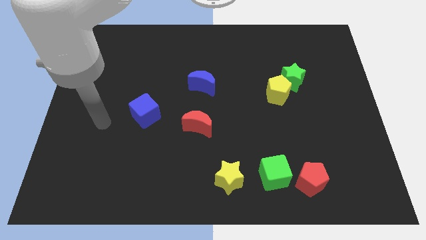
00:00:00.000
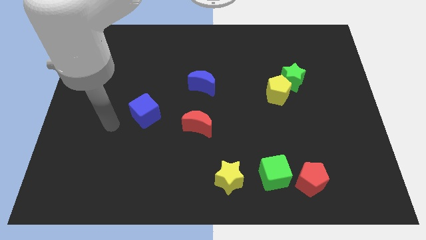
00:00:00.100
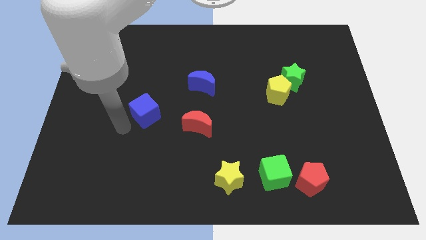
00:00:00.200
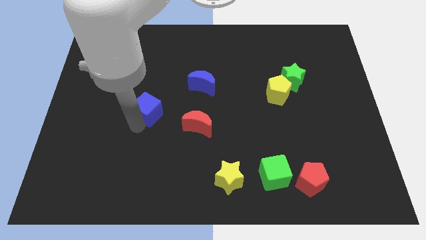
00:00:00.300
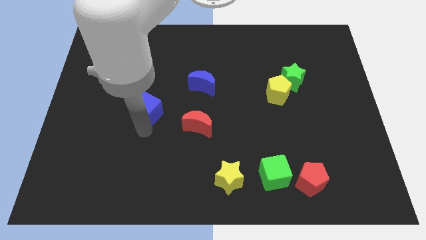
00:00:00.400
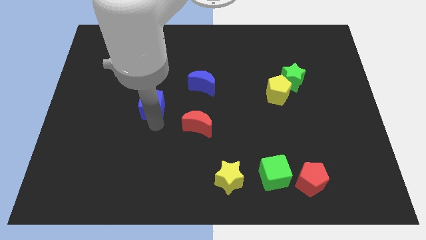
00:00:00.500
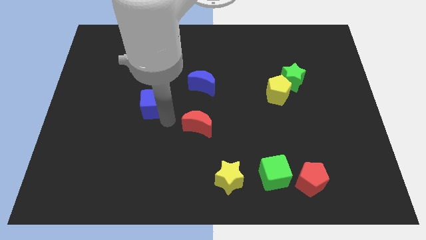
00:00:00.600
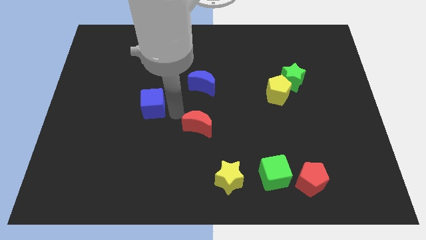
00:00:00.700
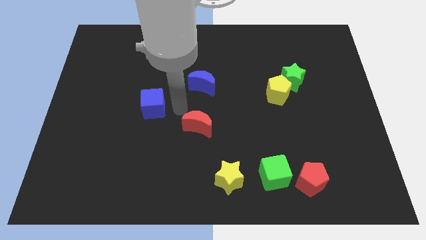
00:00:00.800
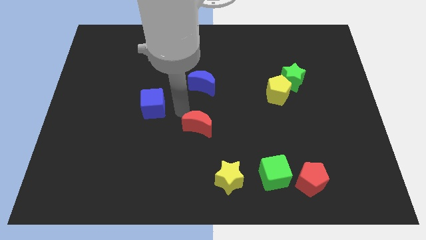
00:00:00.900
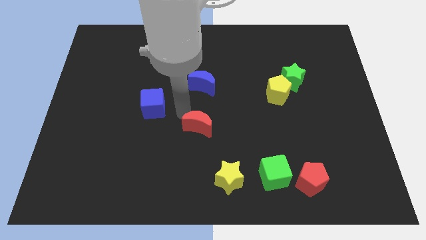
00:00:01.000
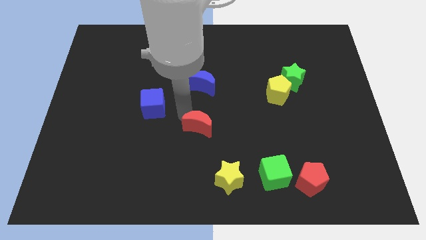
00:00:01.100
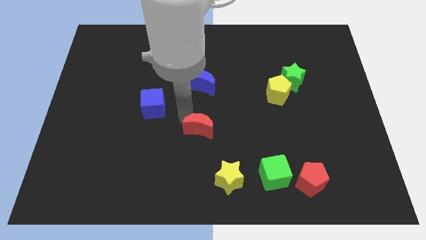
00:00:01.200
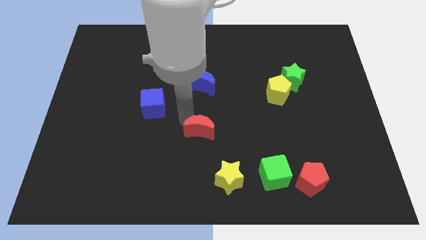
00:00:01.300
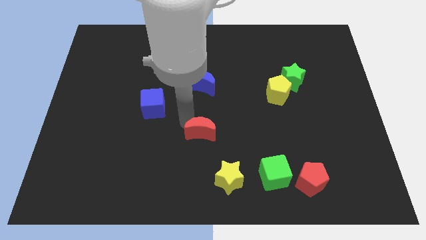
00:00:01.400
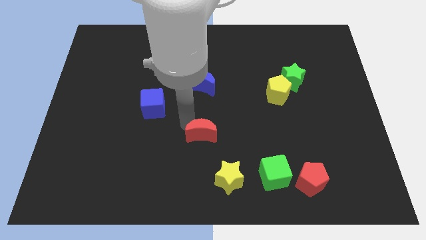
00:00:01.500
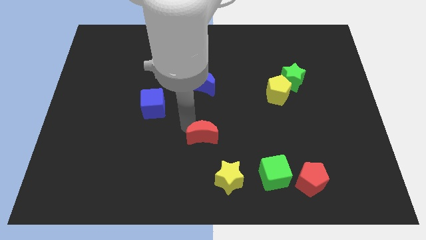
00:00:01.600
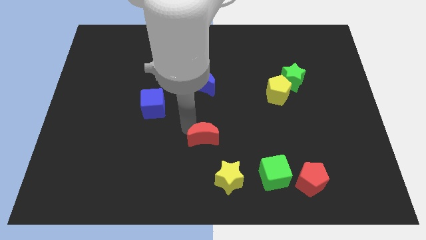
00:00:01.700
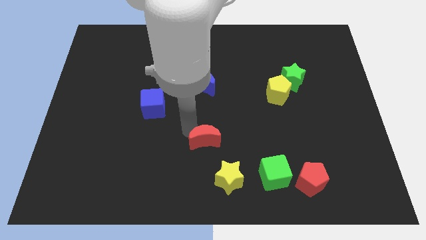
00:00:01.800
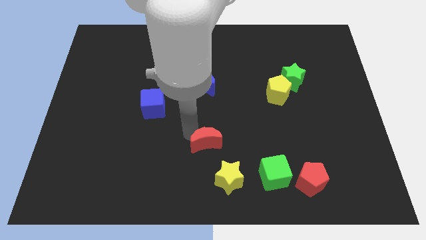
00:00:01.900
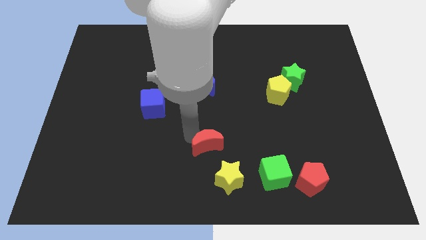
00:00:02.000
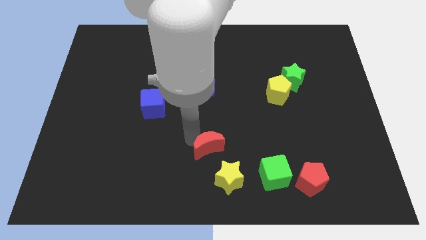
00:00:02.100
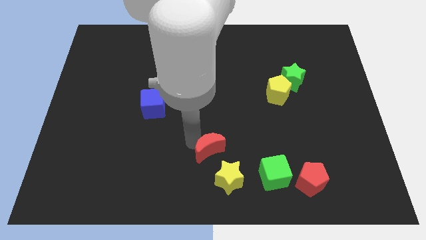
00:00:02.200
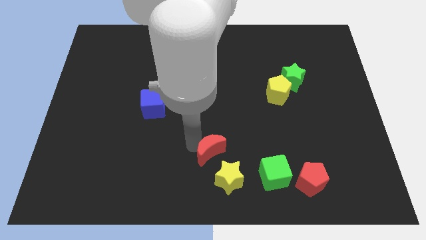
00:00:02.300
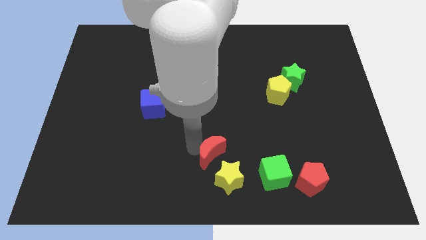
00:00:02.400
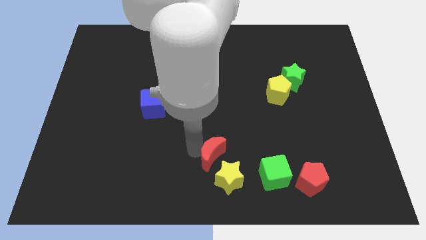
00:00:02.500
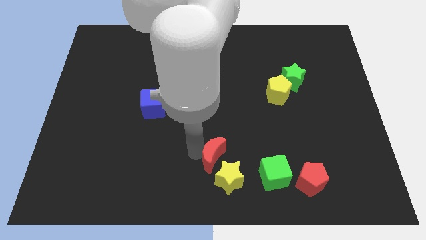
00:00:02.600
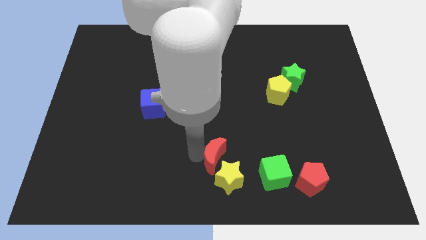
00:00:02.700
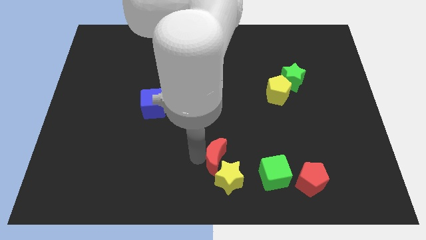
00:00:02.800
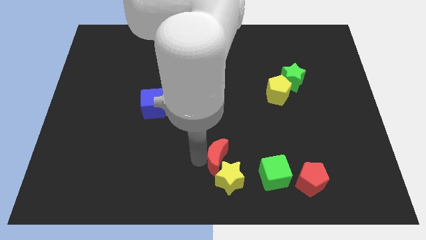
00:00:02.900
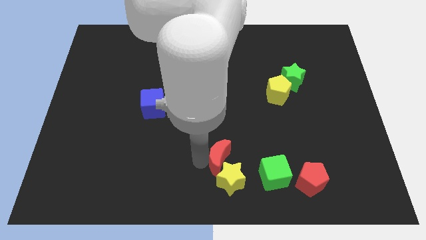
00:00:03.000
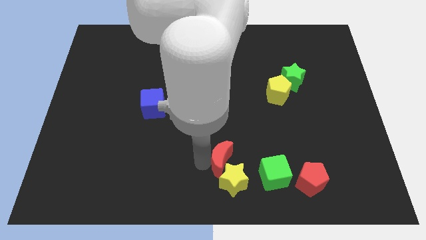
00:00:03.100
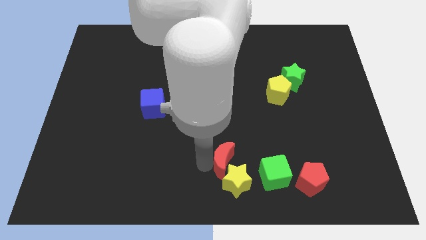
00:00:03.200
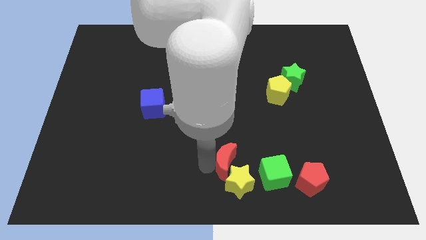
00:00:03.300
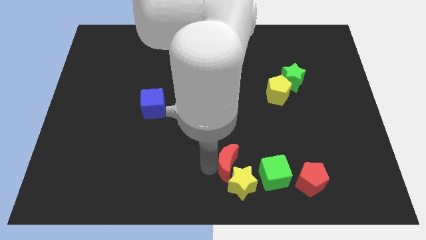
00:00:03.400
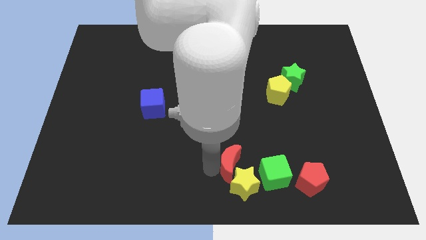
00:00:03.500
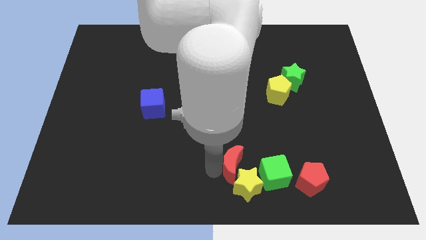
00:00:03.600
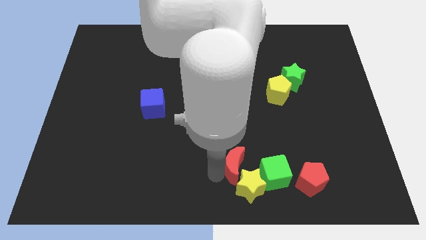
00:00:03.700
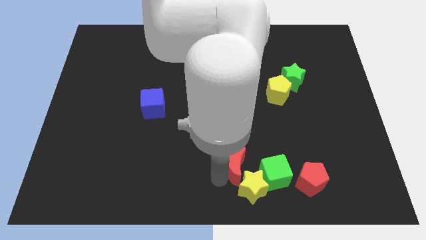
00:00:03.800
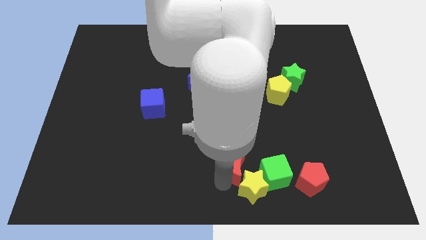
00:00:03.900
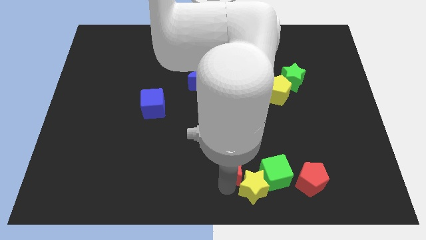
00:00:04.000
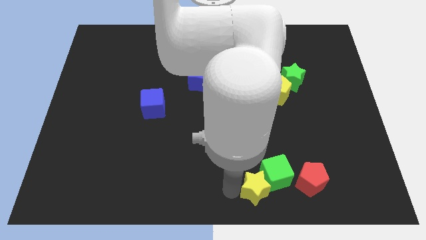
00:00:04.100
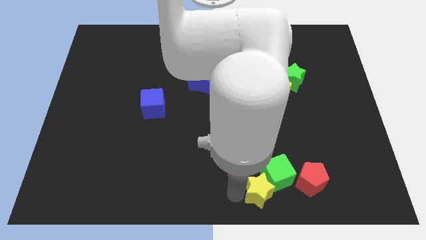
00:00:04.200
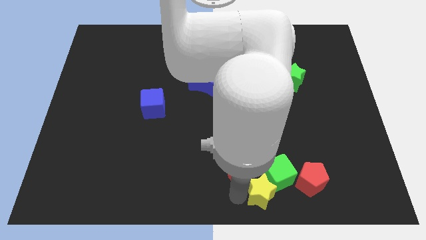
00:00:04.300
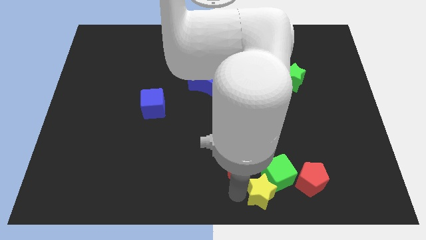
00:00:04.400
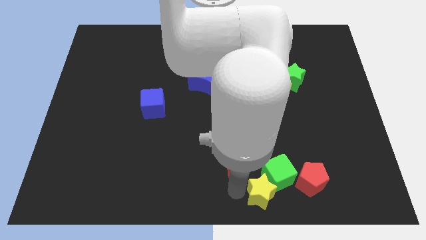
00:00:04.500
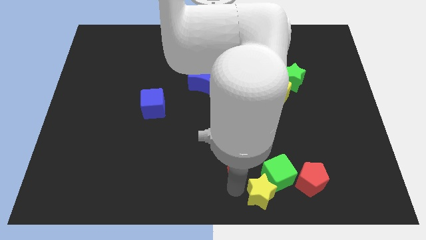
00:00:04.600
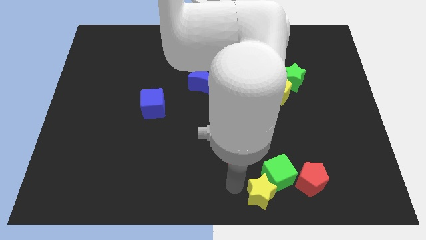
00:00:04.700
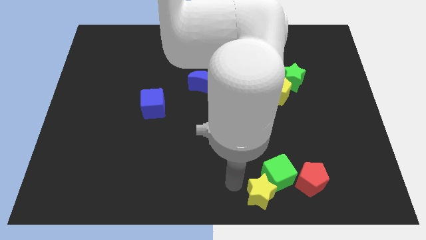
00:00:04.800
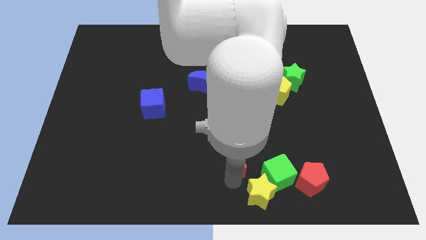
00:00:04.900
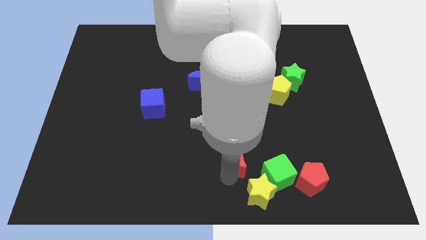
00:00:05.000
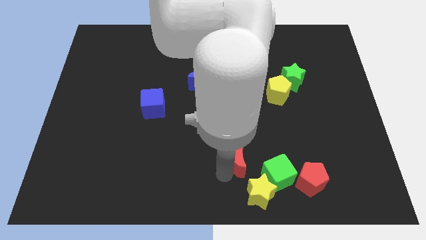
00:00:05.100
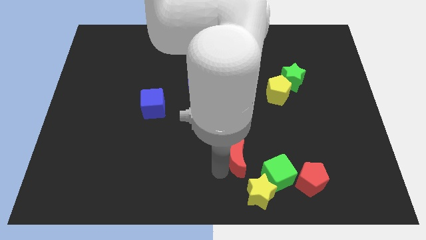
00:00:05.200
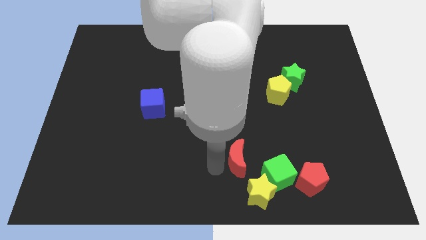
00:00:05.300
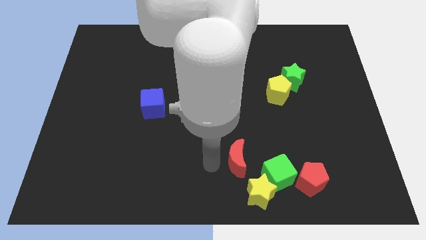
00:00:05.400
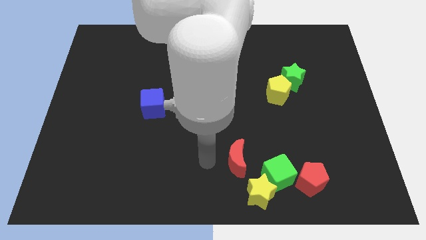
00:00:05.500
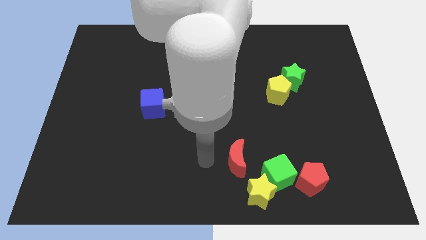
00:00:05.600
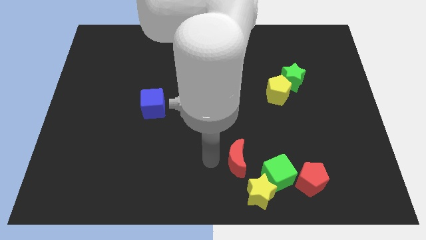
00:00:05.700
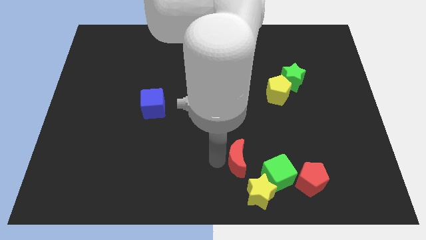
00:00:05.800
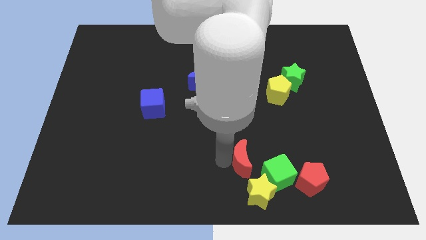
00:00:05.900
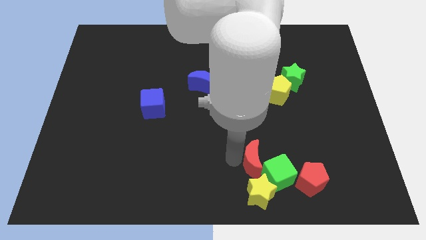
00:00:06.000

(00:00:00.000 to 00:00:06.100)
put the red moon next to the green cube

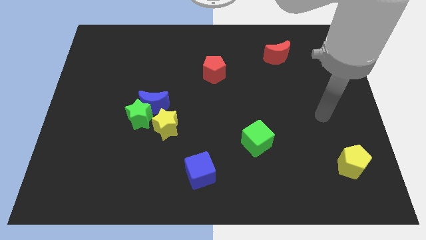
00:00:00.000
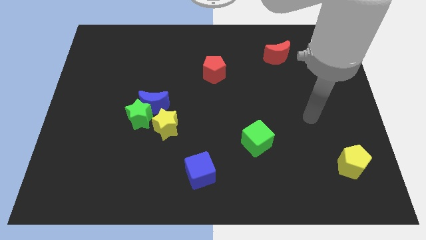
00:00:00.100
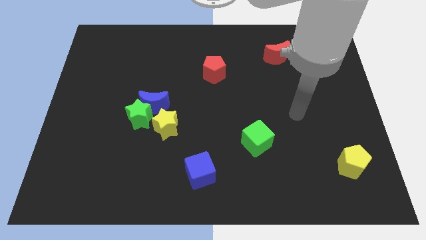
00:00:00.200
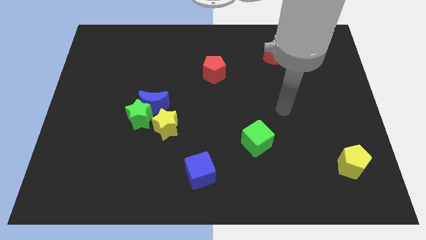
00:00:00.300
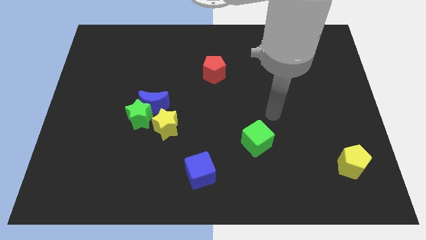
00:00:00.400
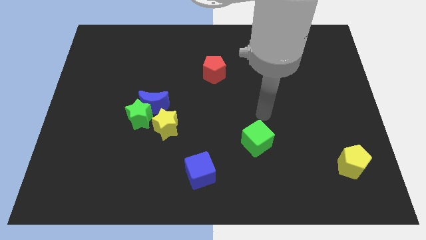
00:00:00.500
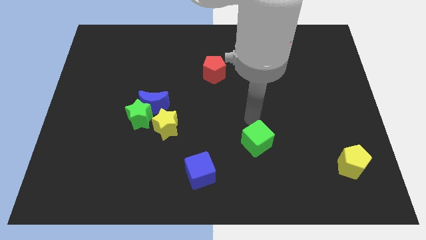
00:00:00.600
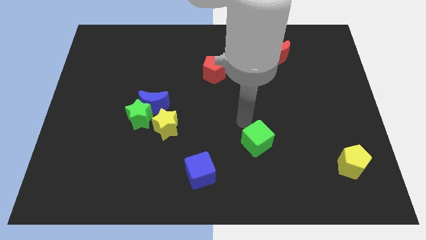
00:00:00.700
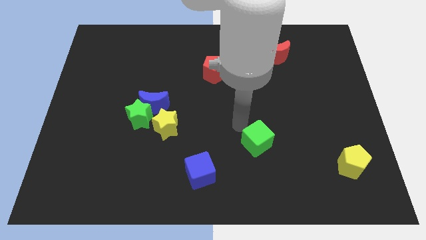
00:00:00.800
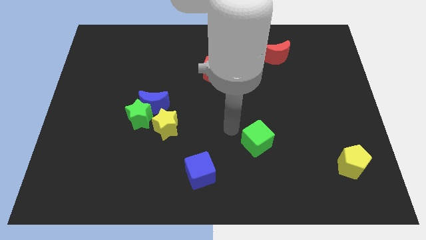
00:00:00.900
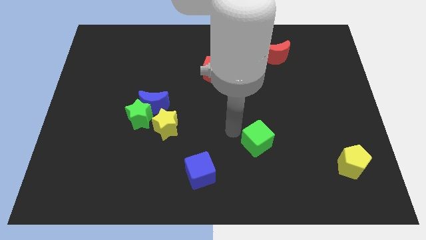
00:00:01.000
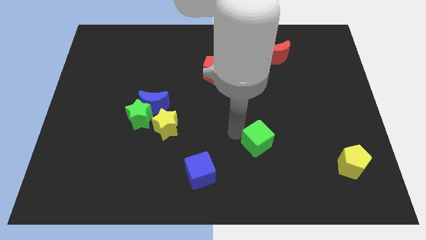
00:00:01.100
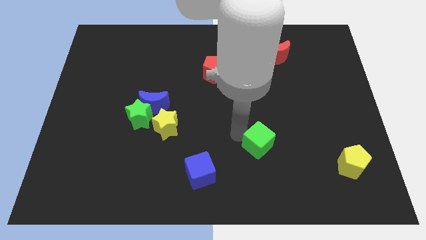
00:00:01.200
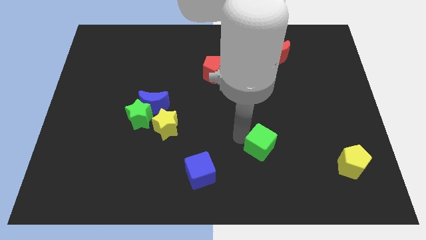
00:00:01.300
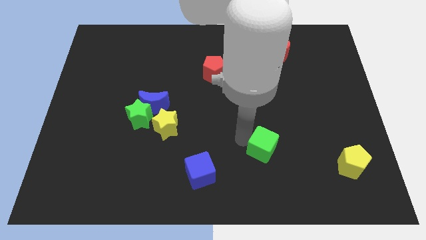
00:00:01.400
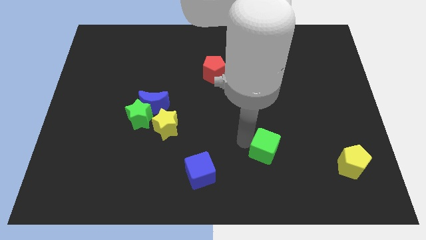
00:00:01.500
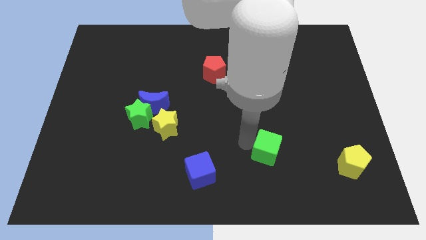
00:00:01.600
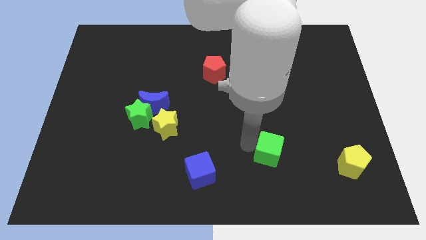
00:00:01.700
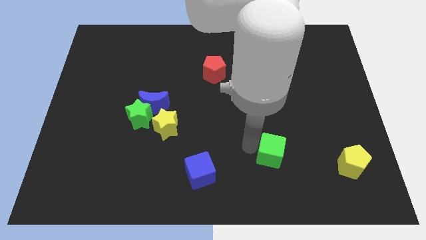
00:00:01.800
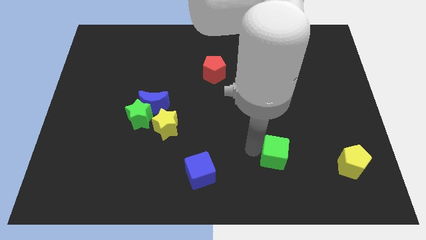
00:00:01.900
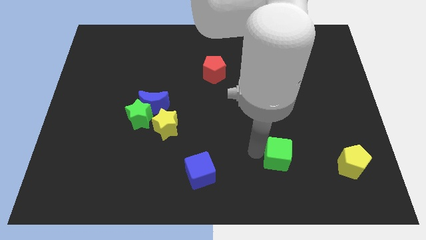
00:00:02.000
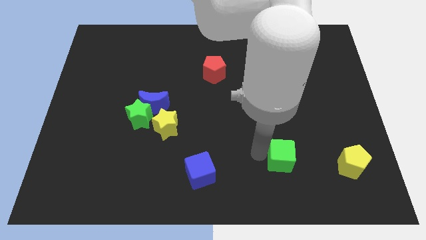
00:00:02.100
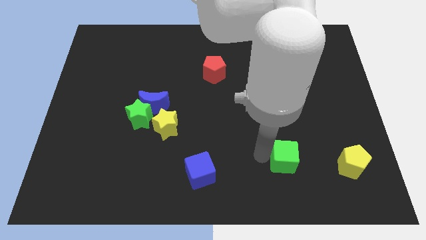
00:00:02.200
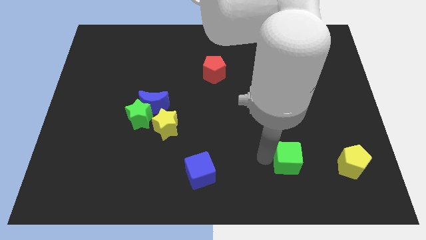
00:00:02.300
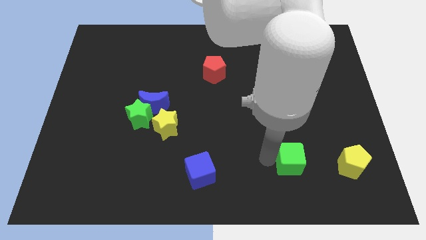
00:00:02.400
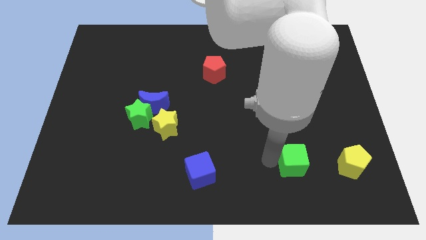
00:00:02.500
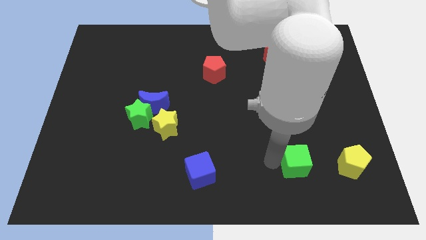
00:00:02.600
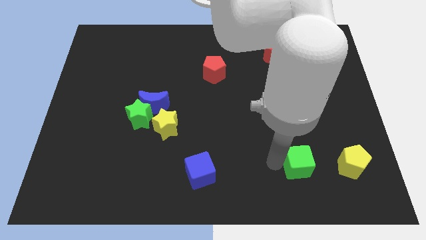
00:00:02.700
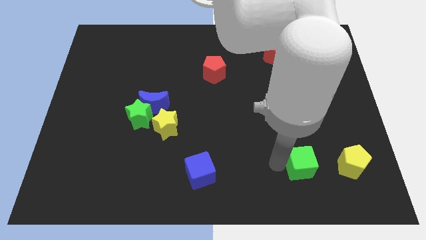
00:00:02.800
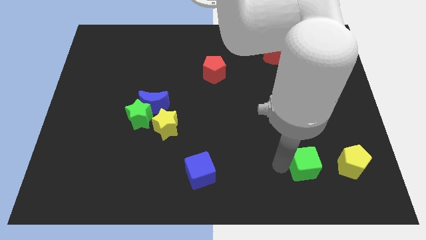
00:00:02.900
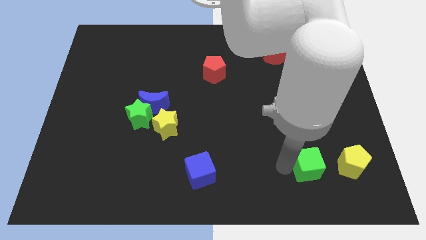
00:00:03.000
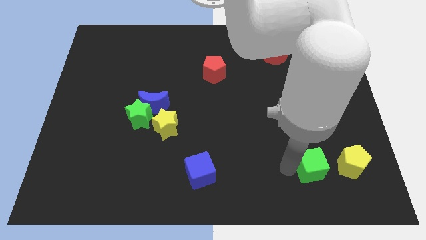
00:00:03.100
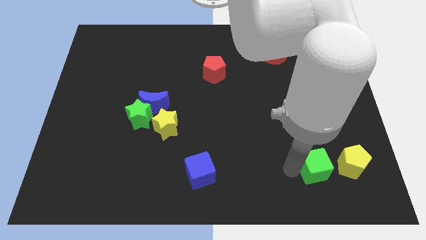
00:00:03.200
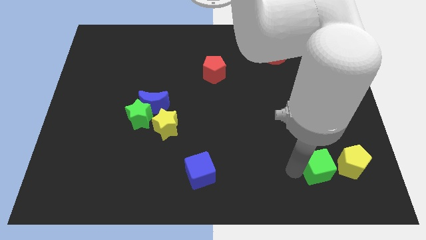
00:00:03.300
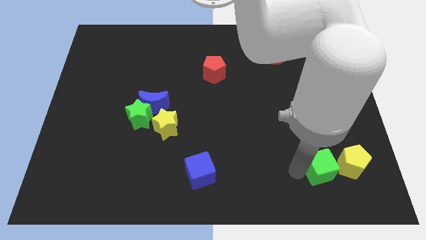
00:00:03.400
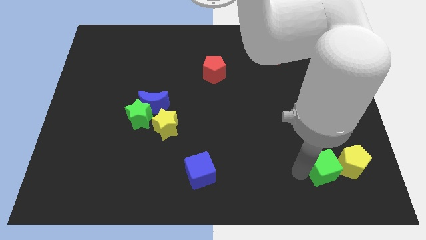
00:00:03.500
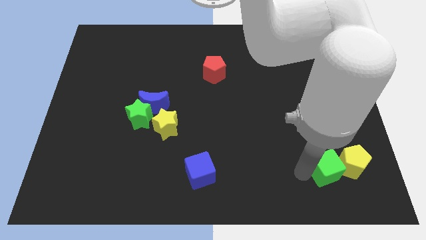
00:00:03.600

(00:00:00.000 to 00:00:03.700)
move the green cube towards the yellow pentagon
